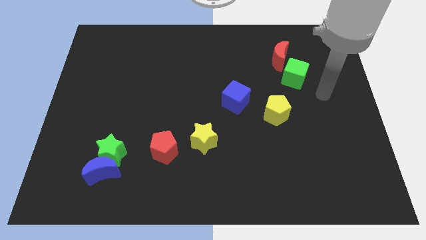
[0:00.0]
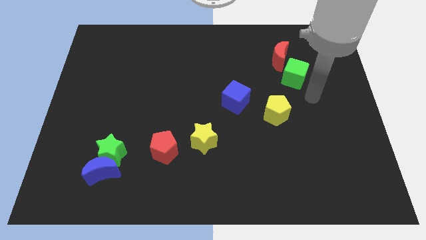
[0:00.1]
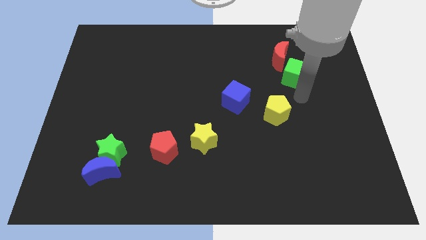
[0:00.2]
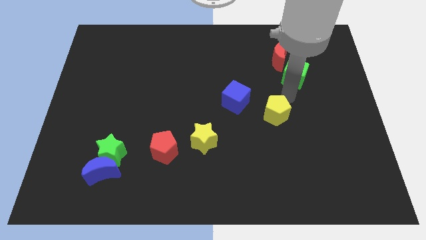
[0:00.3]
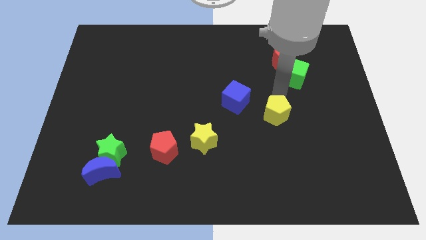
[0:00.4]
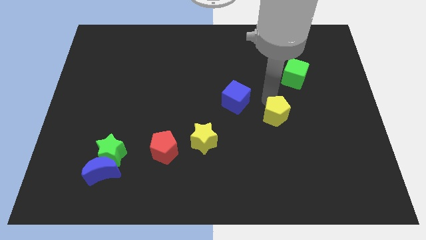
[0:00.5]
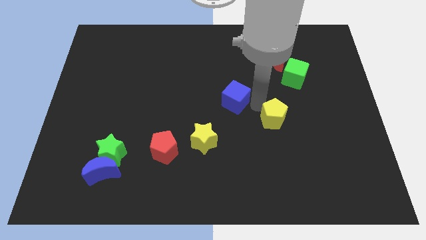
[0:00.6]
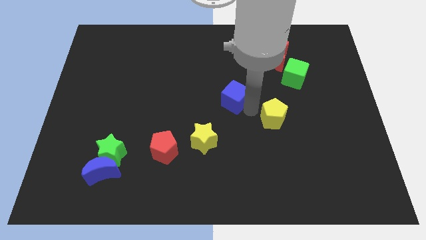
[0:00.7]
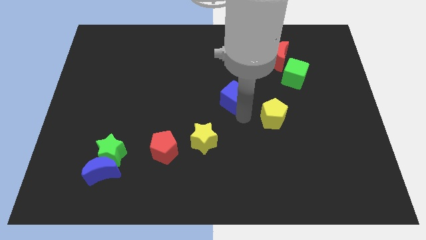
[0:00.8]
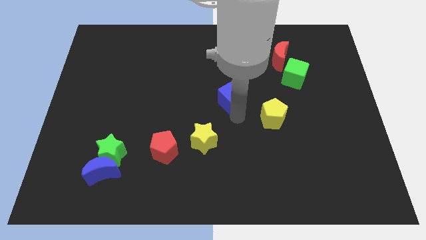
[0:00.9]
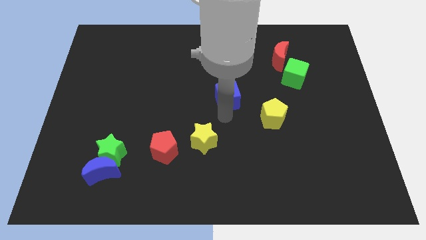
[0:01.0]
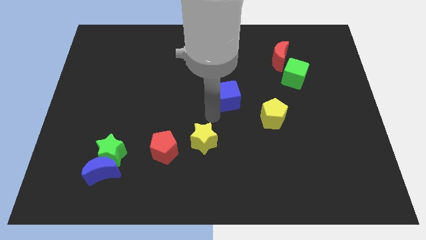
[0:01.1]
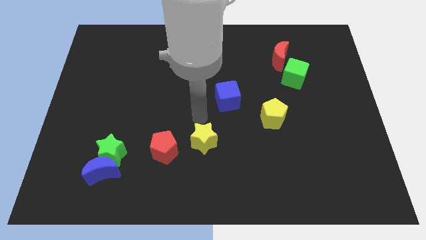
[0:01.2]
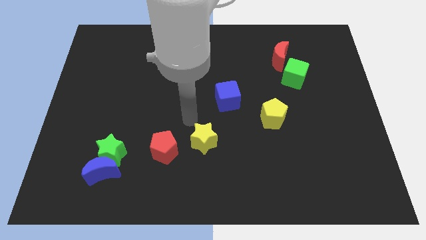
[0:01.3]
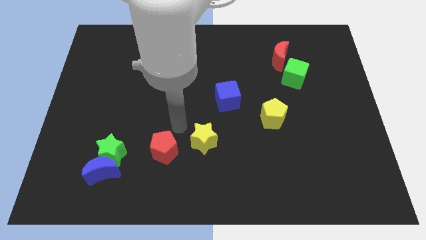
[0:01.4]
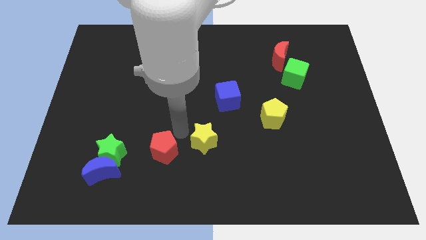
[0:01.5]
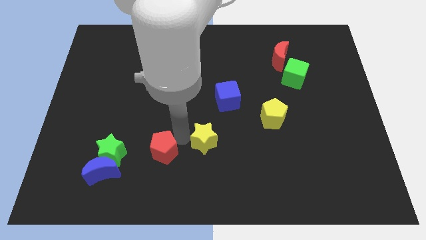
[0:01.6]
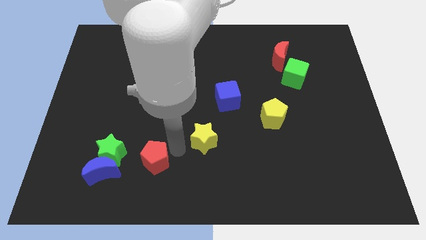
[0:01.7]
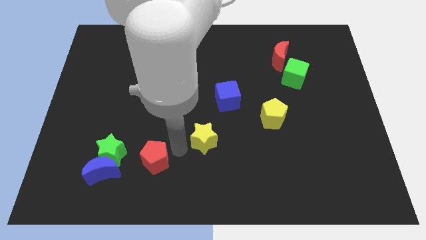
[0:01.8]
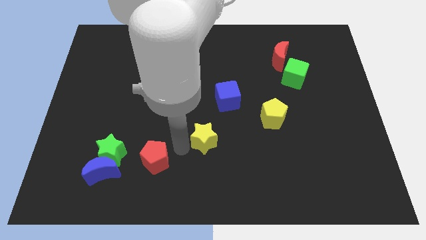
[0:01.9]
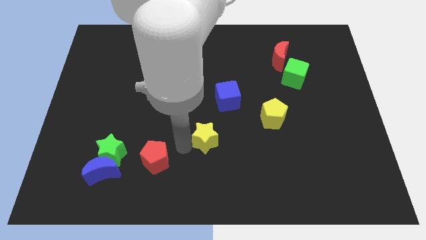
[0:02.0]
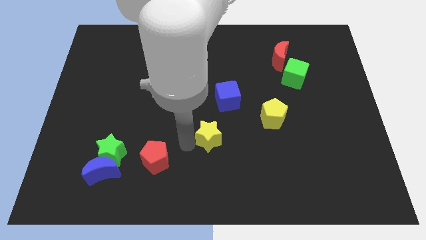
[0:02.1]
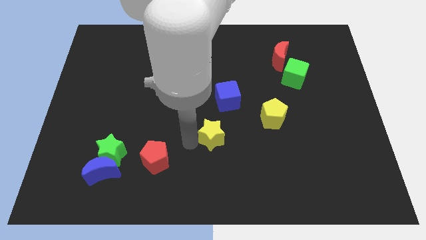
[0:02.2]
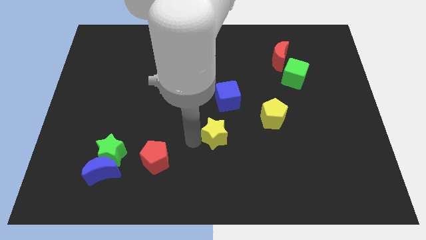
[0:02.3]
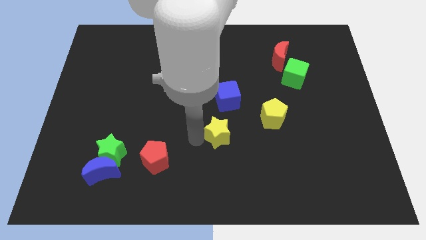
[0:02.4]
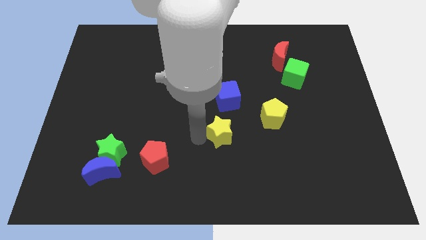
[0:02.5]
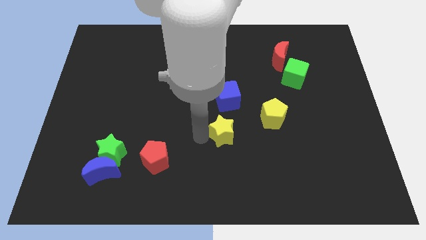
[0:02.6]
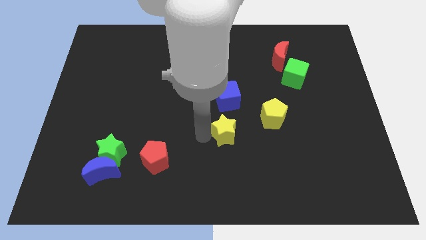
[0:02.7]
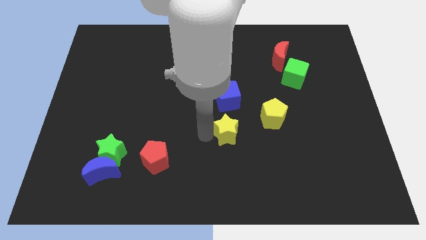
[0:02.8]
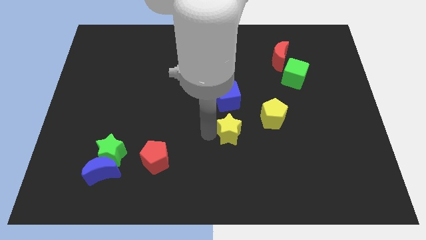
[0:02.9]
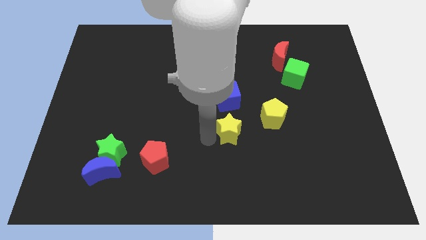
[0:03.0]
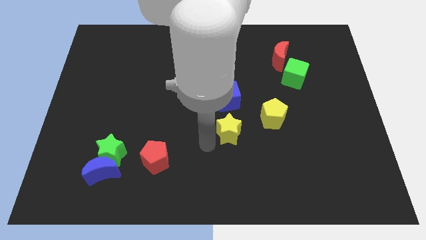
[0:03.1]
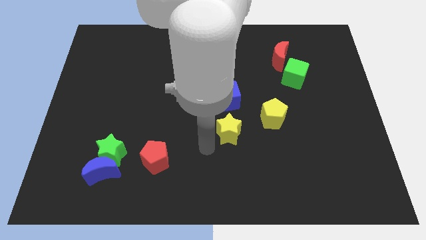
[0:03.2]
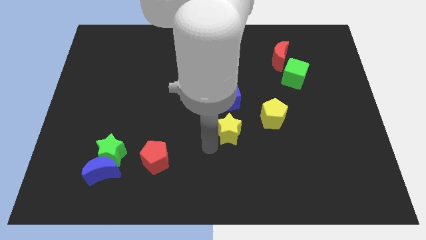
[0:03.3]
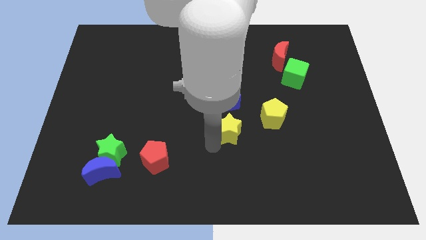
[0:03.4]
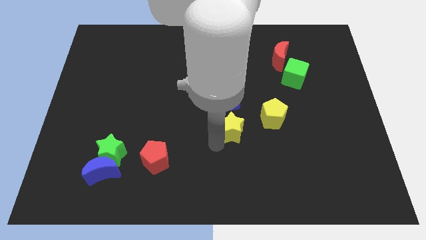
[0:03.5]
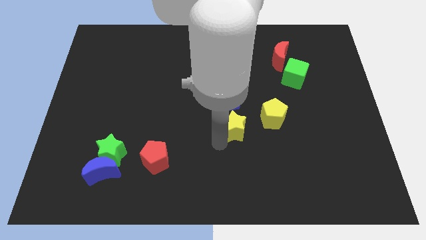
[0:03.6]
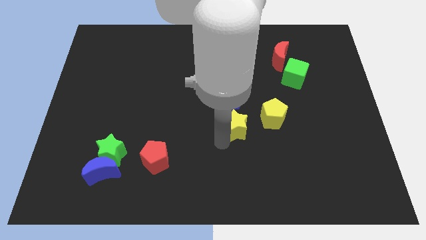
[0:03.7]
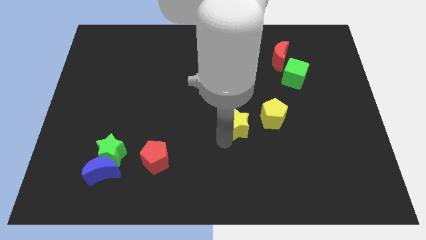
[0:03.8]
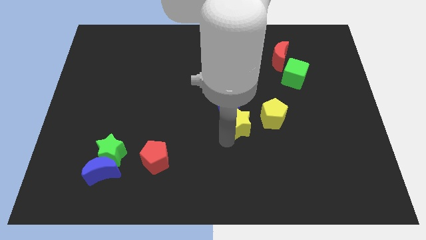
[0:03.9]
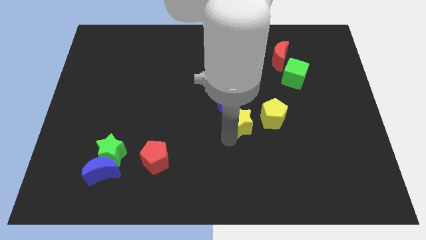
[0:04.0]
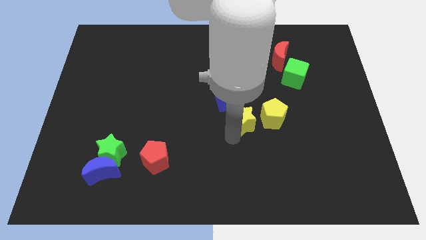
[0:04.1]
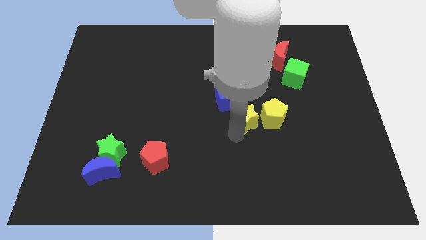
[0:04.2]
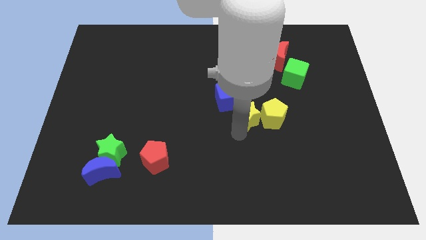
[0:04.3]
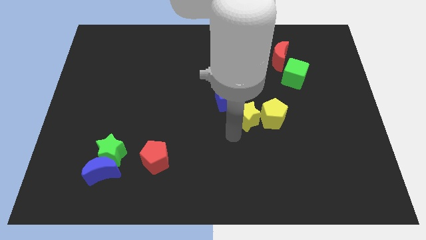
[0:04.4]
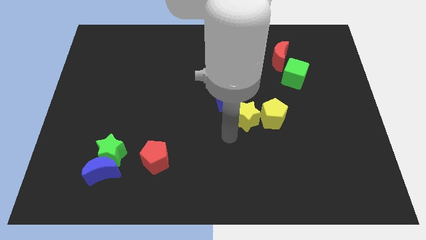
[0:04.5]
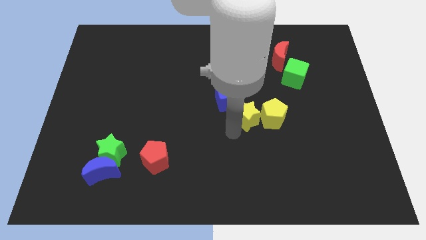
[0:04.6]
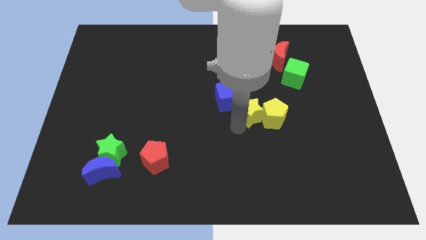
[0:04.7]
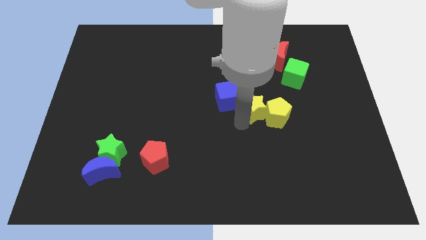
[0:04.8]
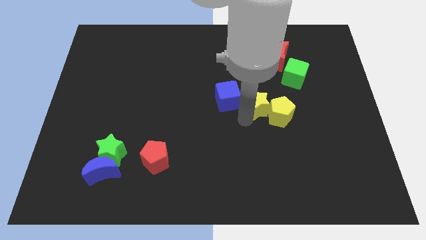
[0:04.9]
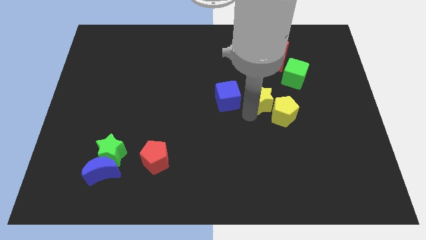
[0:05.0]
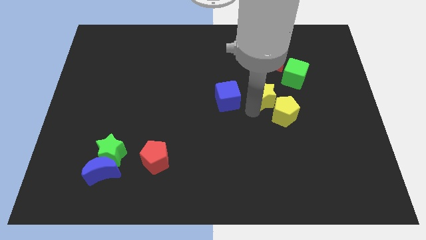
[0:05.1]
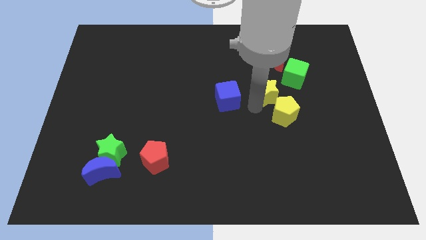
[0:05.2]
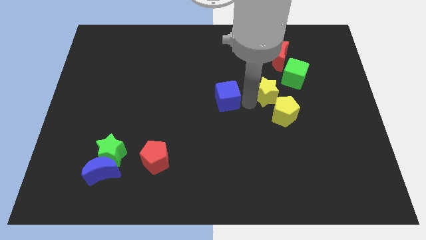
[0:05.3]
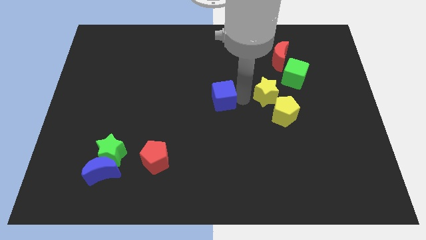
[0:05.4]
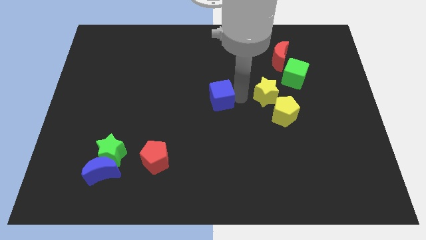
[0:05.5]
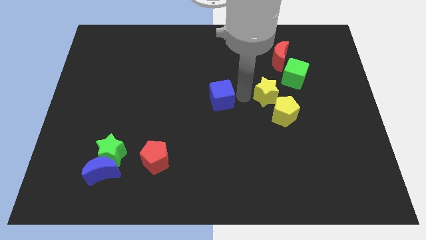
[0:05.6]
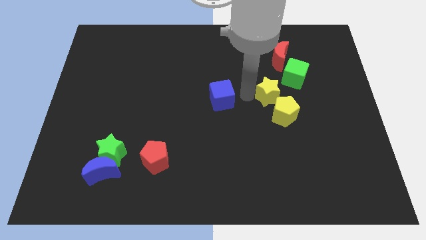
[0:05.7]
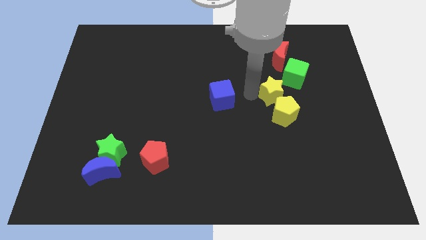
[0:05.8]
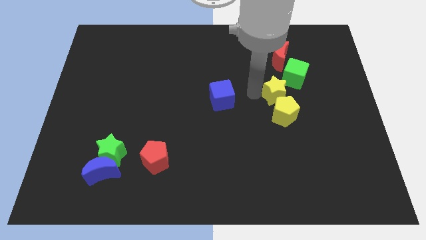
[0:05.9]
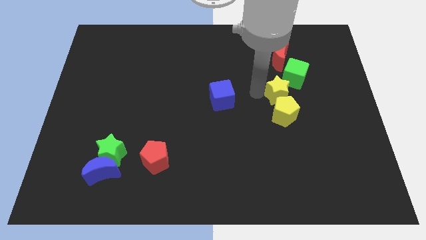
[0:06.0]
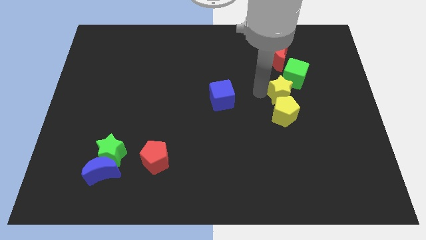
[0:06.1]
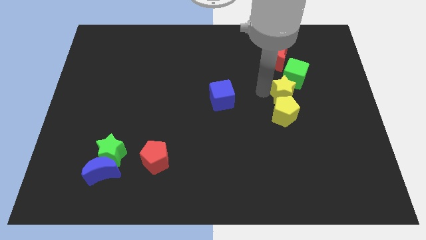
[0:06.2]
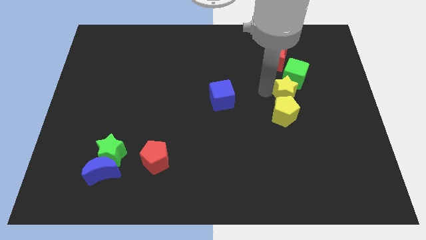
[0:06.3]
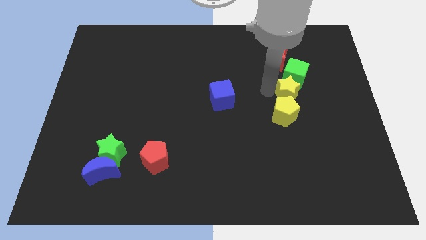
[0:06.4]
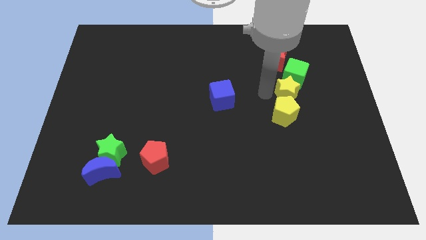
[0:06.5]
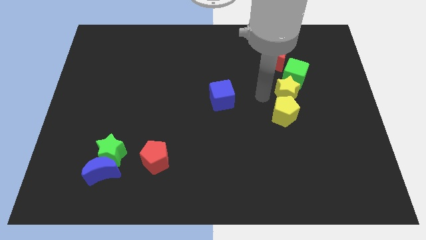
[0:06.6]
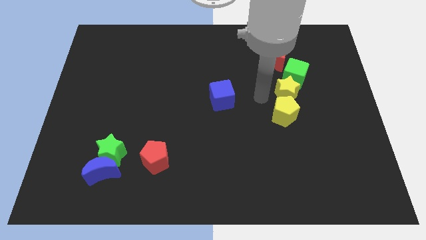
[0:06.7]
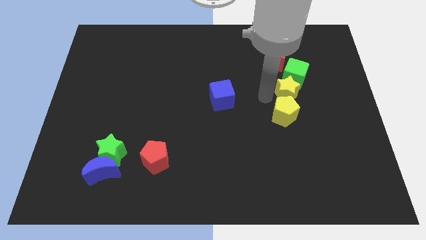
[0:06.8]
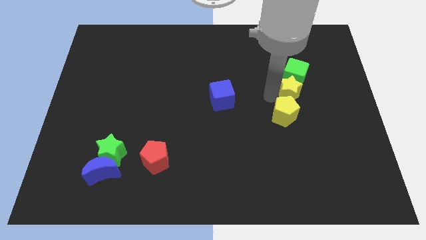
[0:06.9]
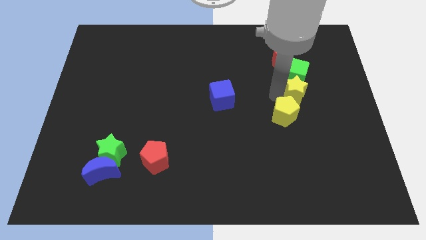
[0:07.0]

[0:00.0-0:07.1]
slide the yellow star to the bottom right side of the green cube
